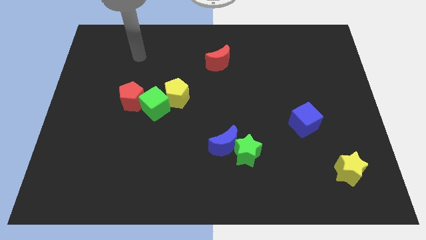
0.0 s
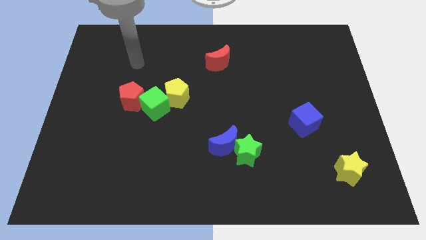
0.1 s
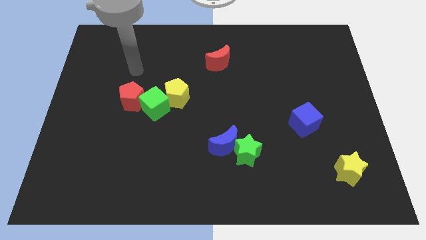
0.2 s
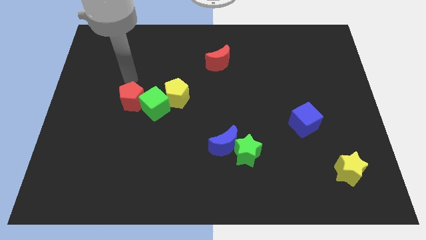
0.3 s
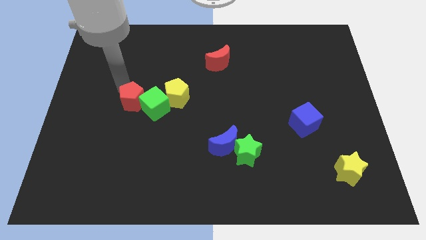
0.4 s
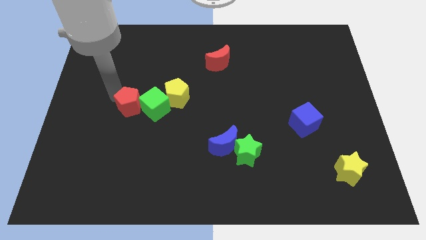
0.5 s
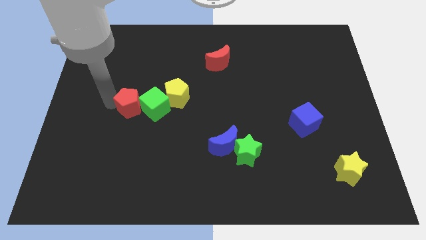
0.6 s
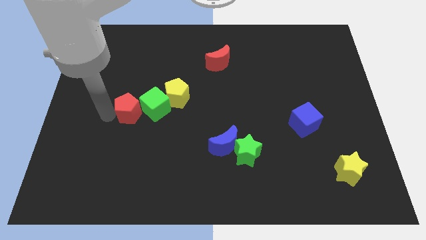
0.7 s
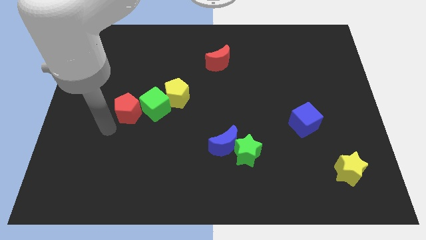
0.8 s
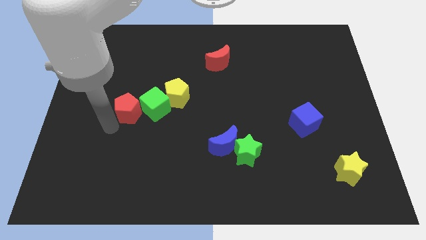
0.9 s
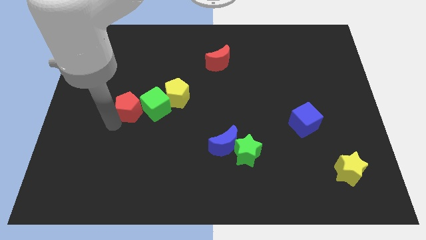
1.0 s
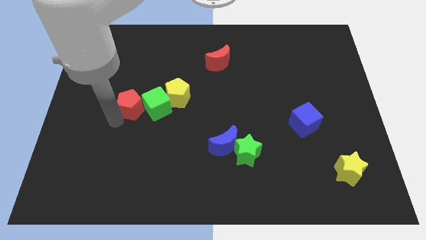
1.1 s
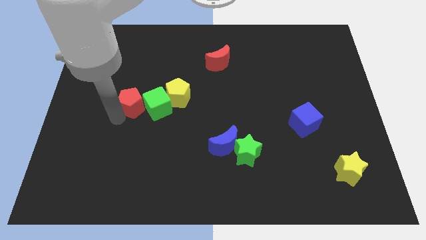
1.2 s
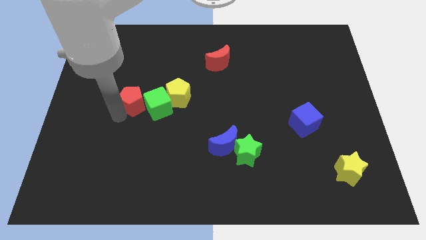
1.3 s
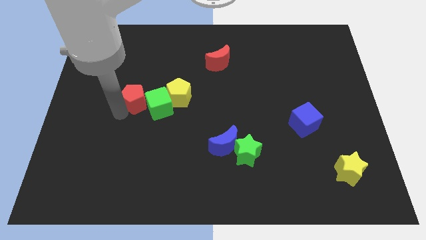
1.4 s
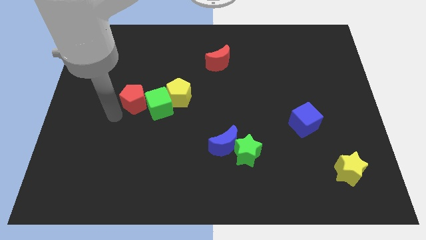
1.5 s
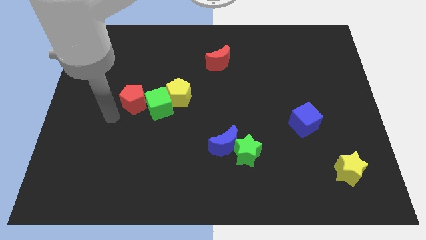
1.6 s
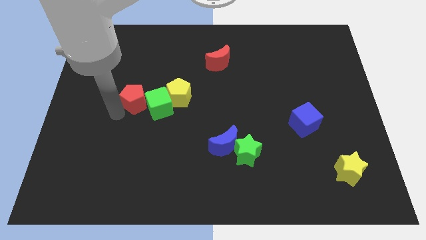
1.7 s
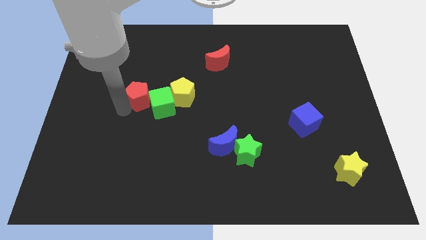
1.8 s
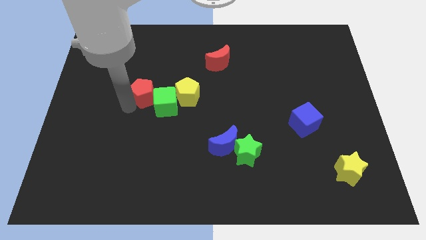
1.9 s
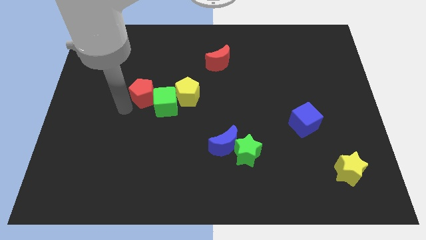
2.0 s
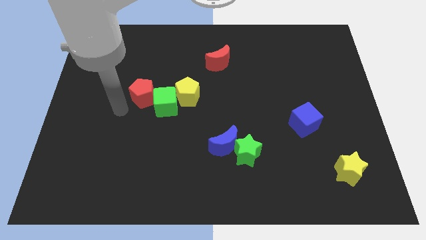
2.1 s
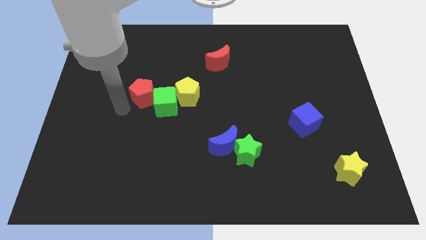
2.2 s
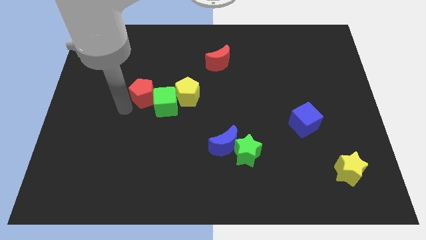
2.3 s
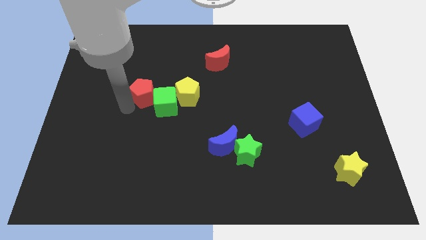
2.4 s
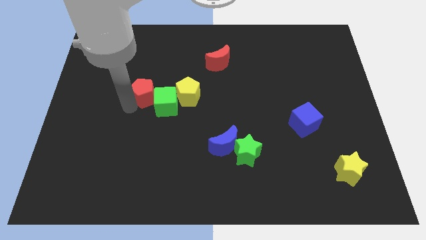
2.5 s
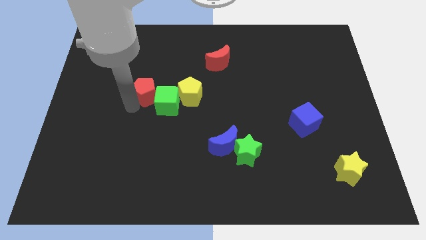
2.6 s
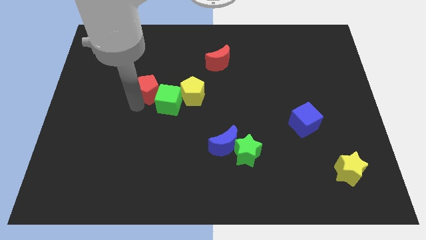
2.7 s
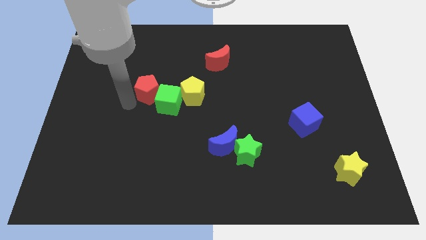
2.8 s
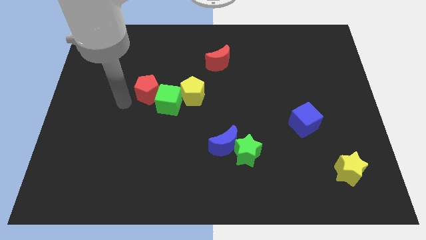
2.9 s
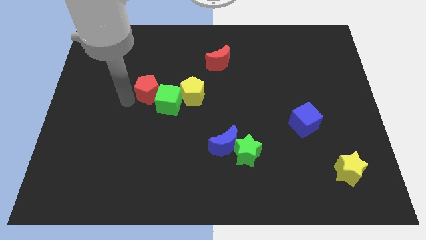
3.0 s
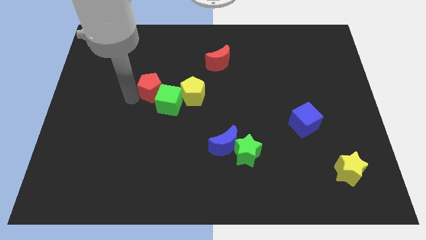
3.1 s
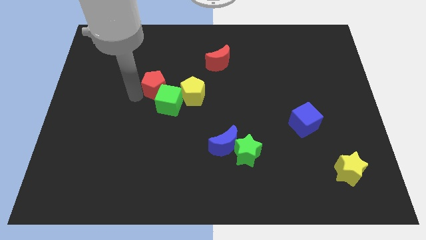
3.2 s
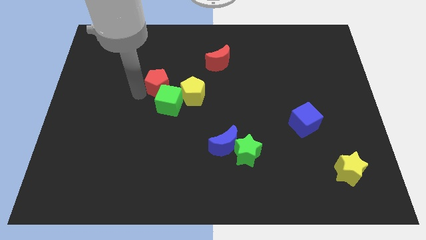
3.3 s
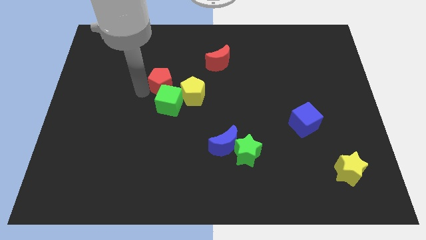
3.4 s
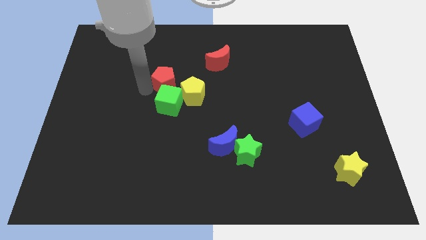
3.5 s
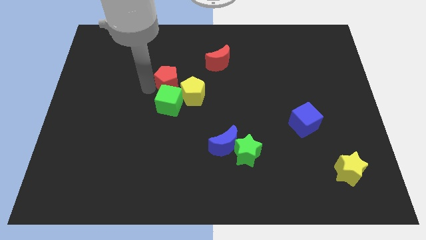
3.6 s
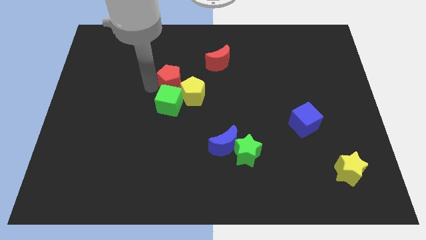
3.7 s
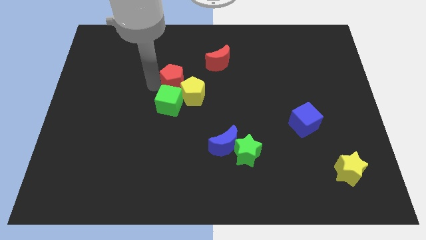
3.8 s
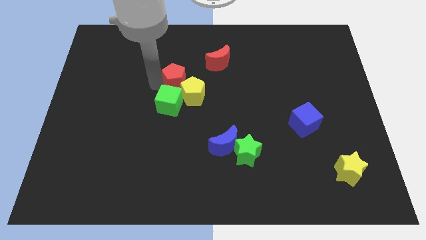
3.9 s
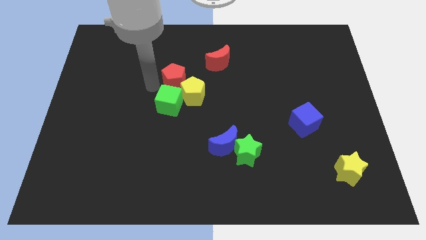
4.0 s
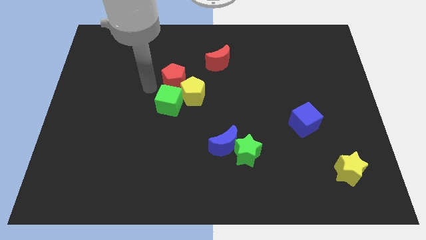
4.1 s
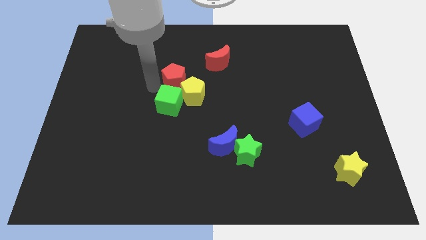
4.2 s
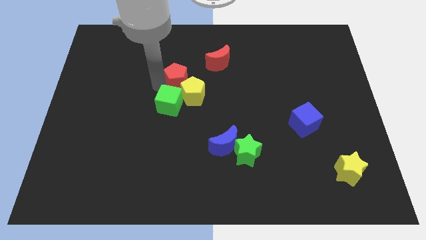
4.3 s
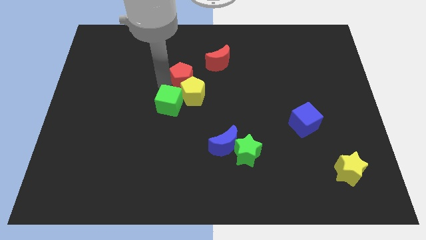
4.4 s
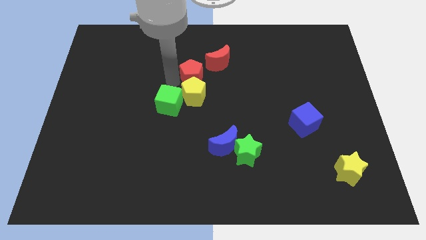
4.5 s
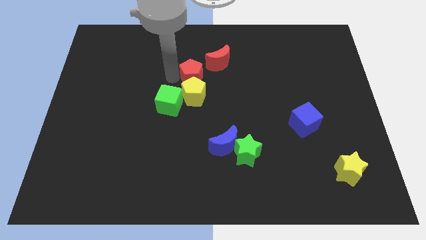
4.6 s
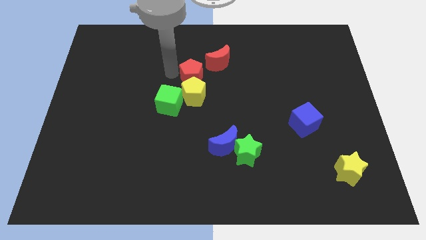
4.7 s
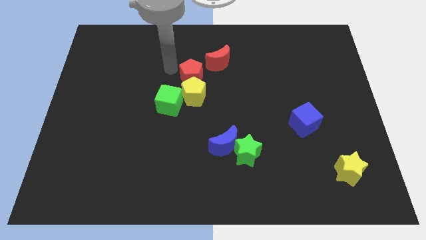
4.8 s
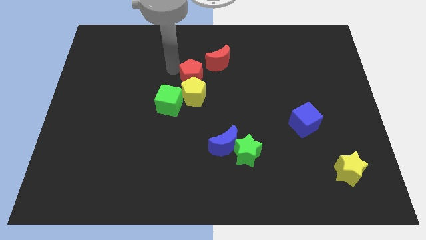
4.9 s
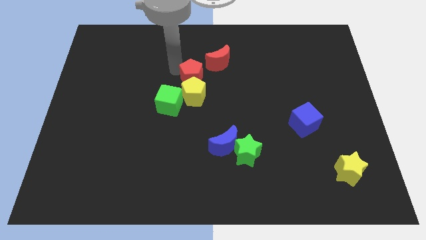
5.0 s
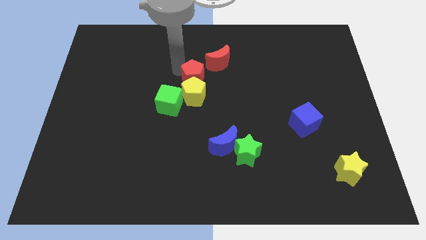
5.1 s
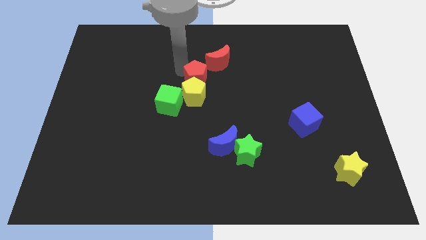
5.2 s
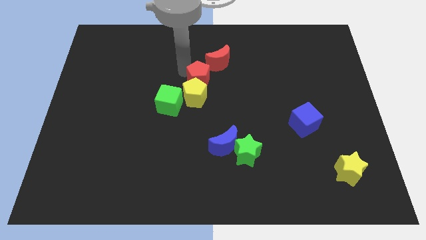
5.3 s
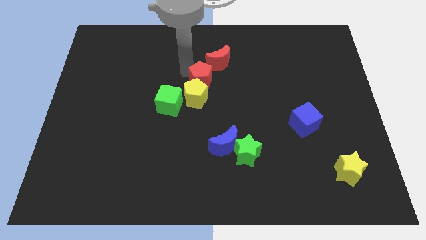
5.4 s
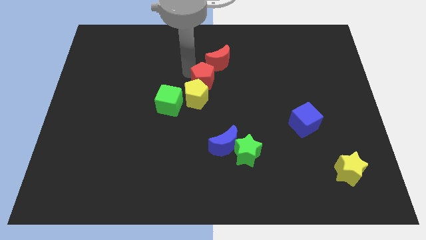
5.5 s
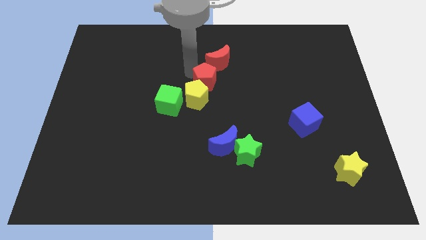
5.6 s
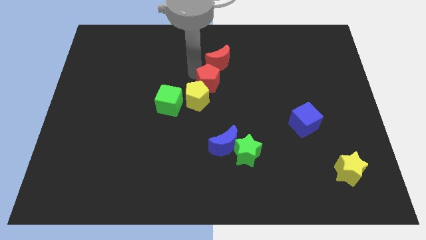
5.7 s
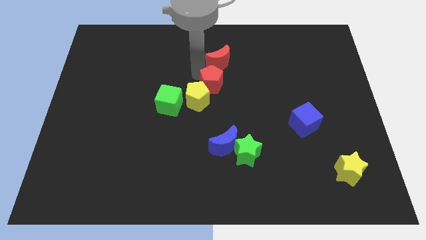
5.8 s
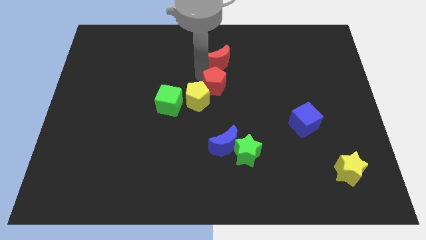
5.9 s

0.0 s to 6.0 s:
put the red pentagon just right of the yellow pentagon

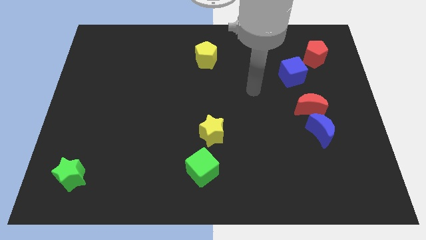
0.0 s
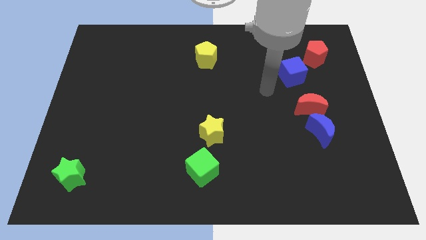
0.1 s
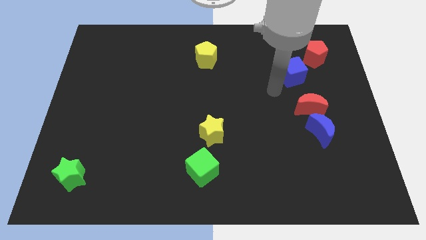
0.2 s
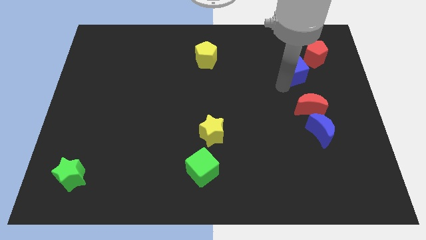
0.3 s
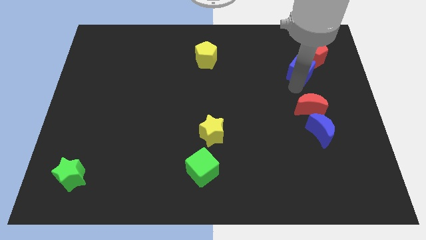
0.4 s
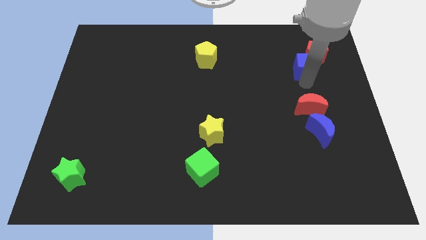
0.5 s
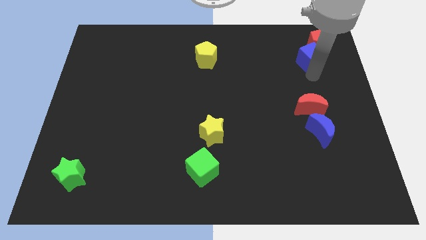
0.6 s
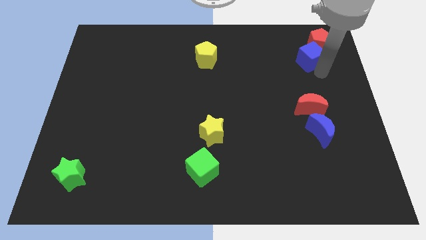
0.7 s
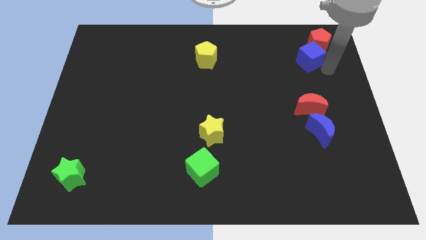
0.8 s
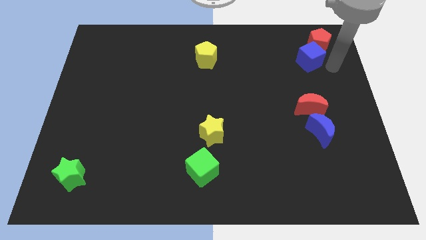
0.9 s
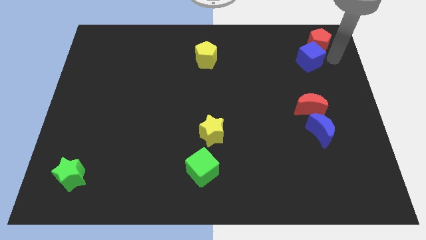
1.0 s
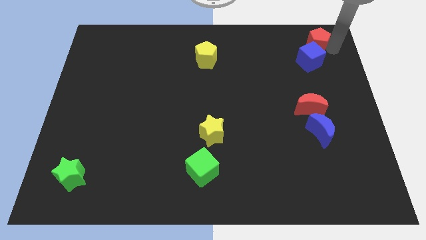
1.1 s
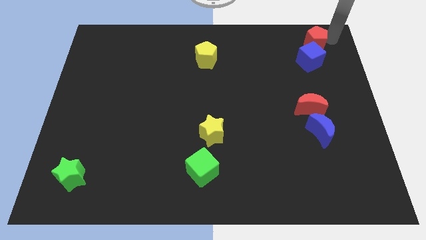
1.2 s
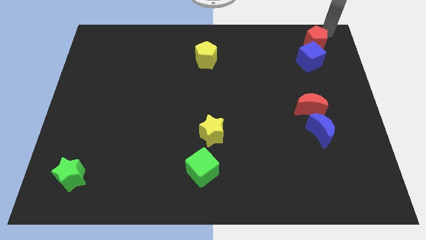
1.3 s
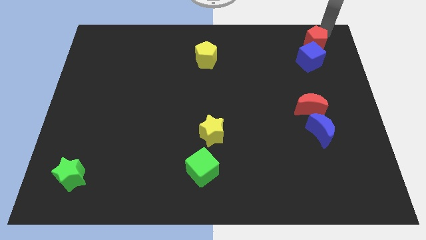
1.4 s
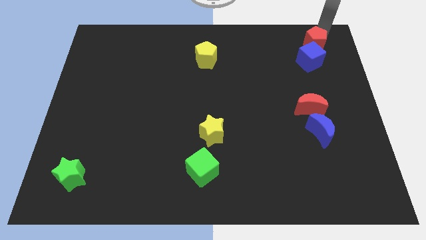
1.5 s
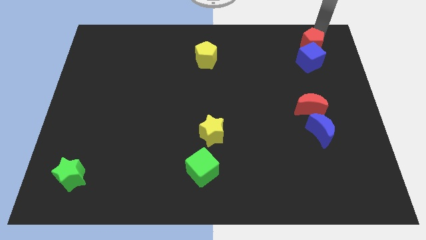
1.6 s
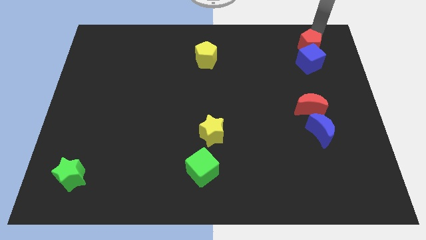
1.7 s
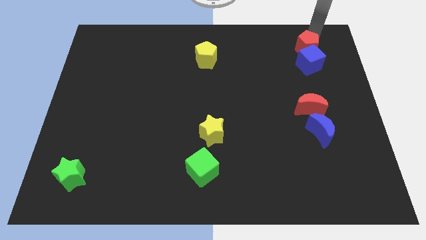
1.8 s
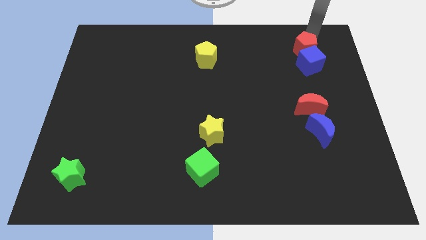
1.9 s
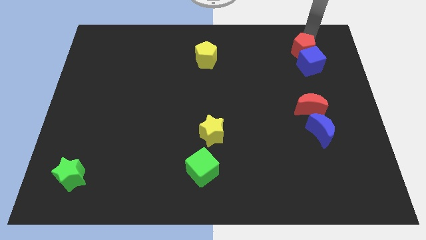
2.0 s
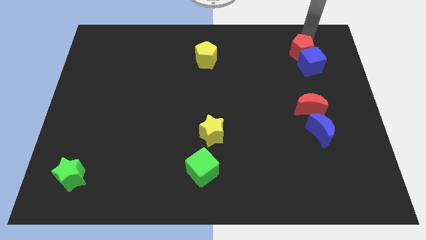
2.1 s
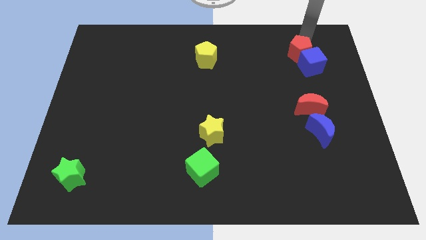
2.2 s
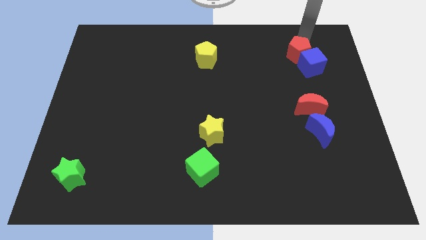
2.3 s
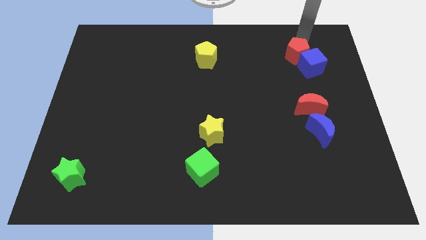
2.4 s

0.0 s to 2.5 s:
slide the red pentagon just left of the blue cube
